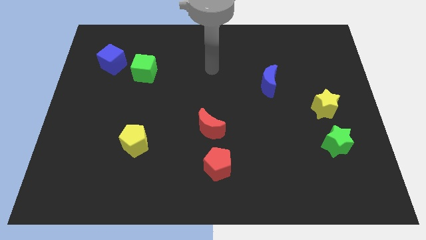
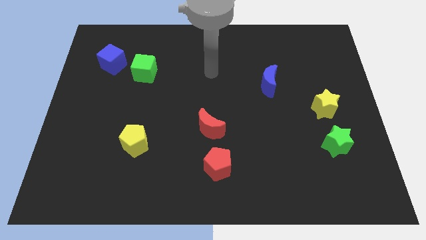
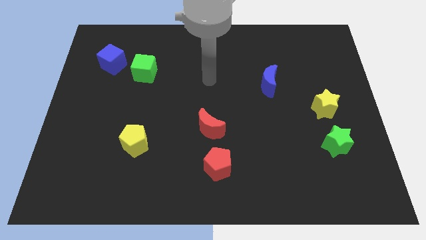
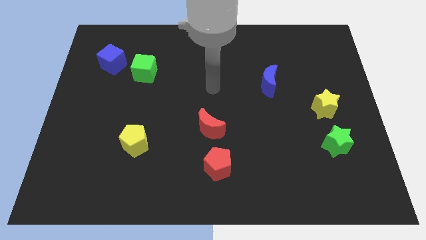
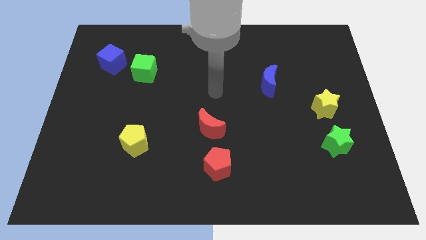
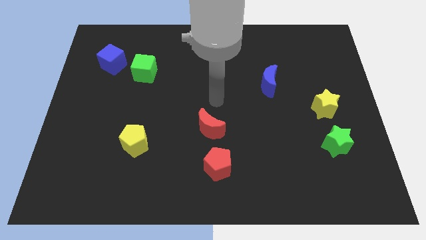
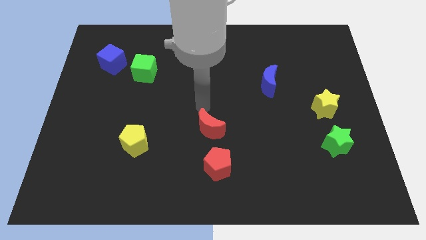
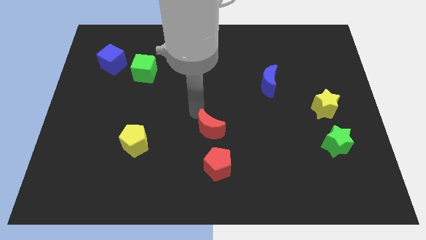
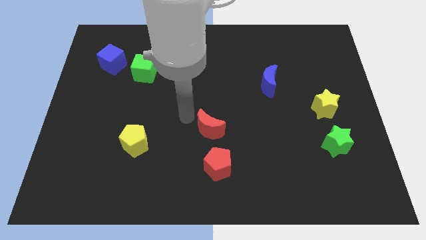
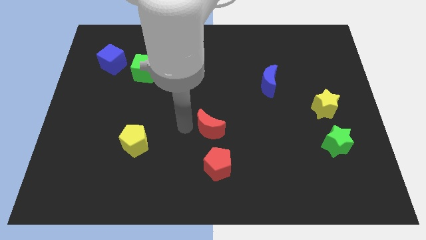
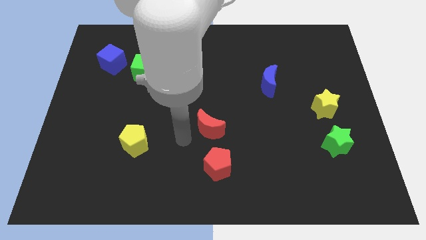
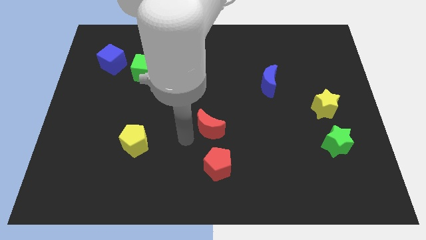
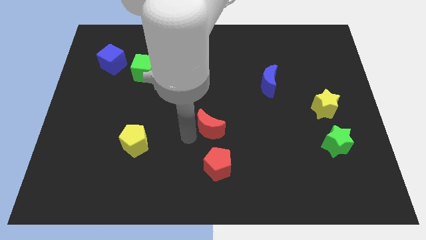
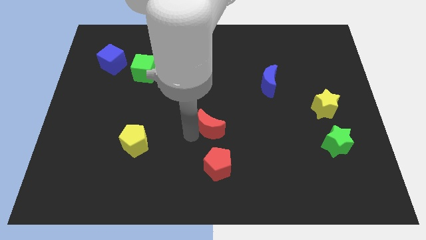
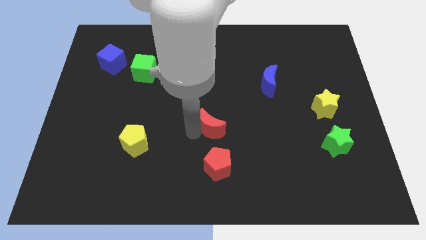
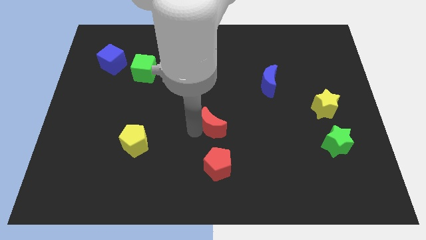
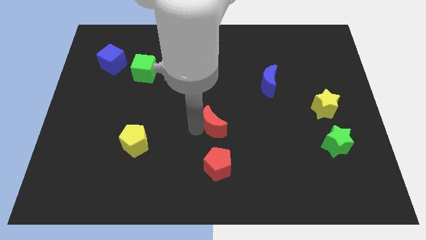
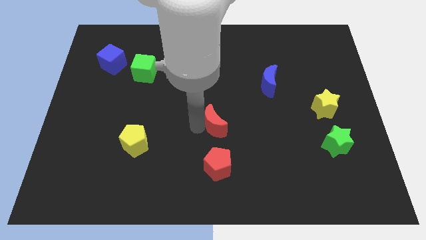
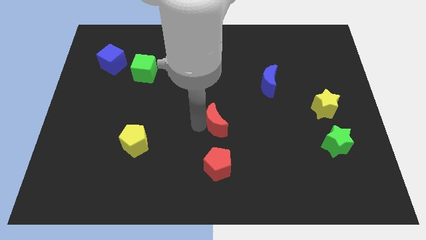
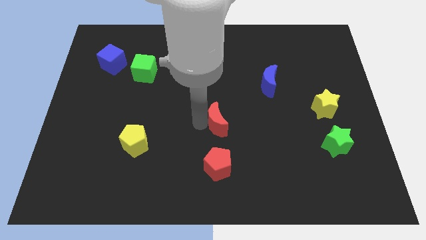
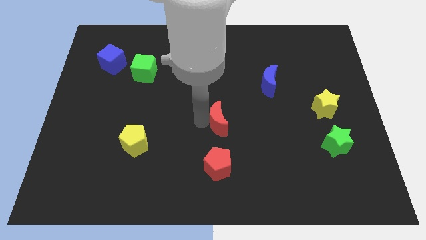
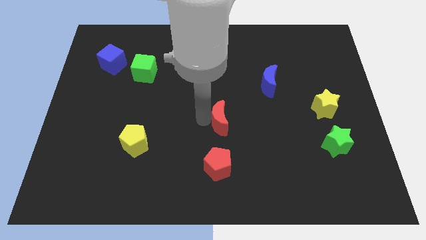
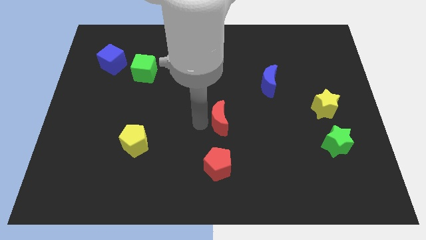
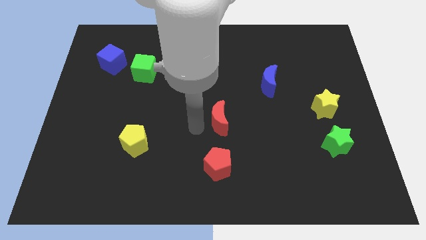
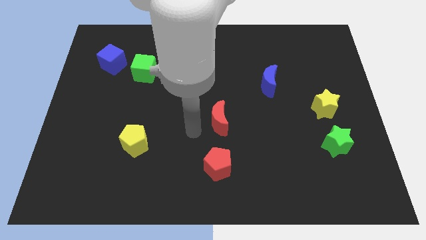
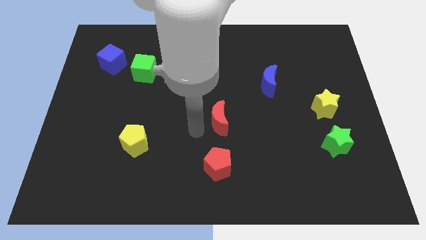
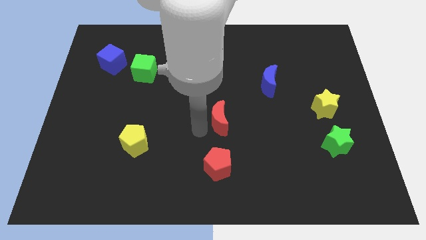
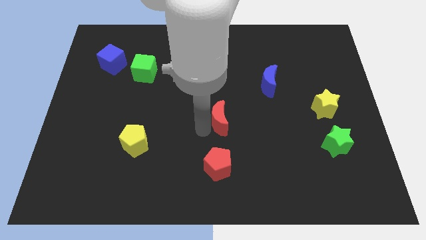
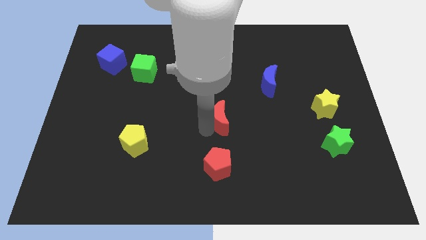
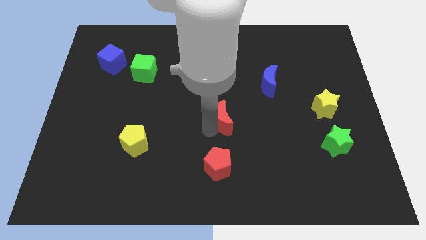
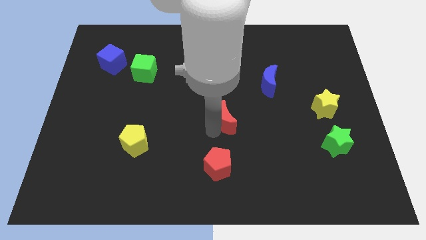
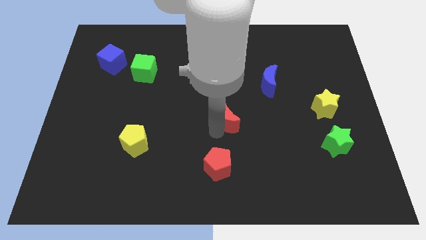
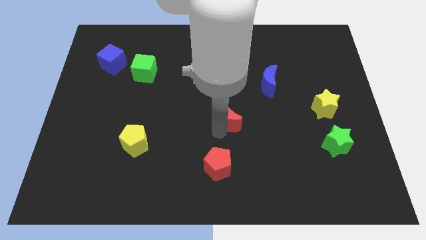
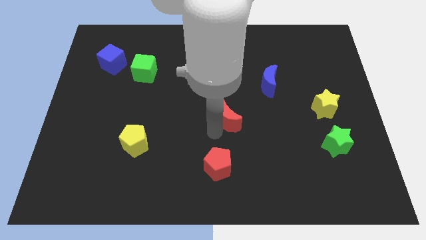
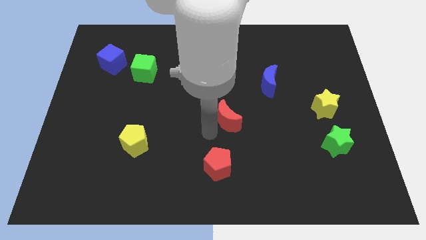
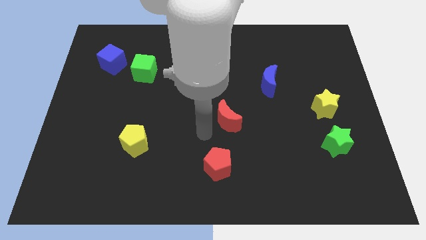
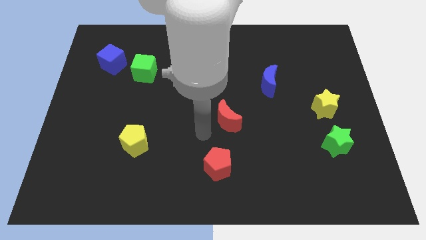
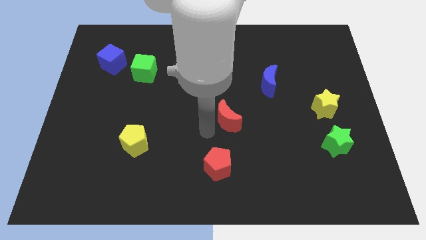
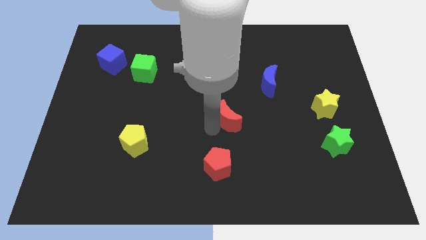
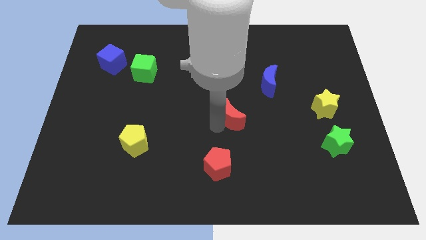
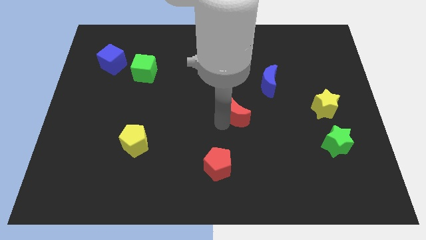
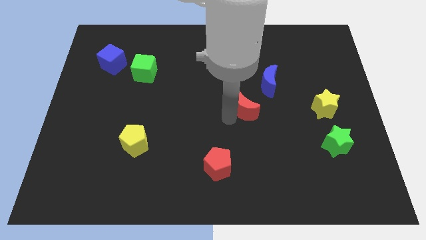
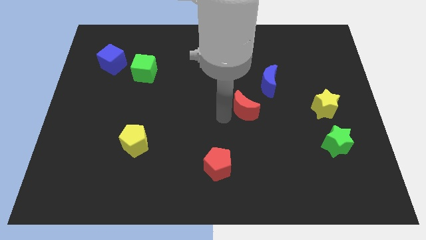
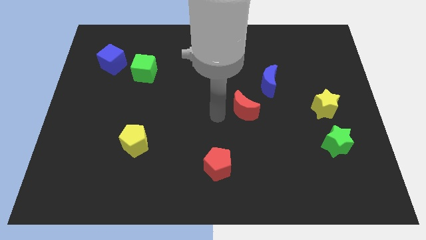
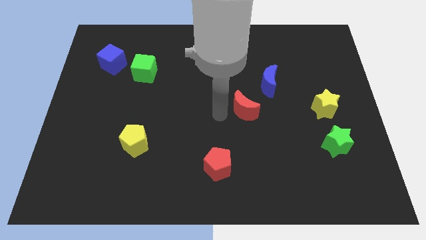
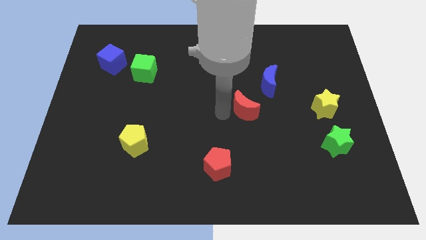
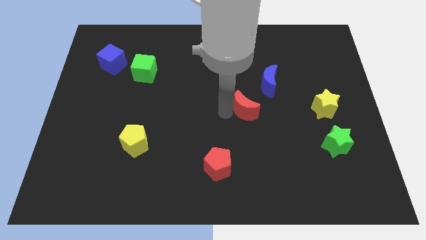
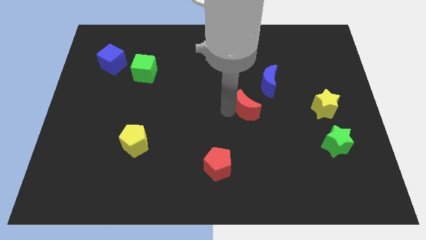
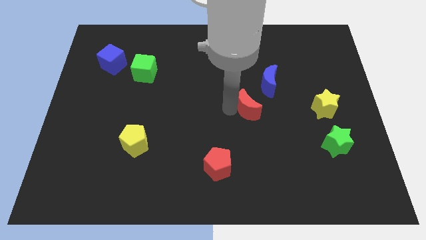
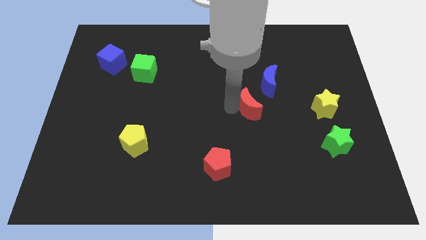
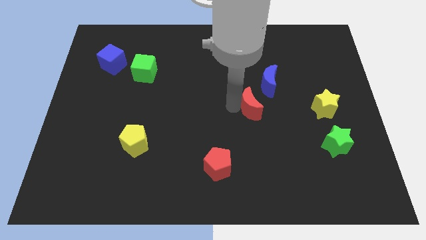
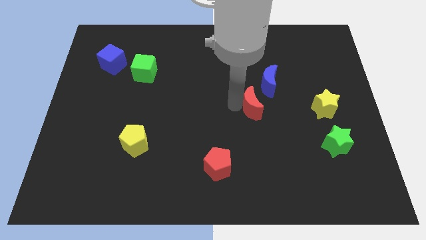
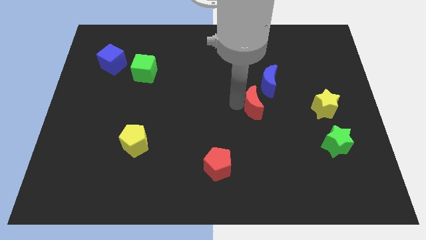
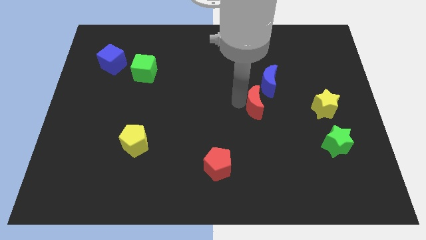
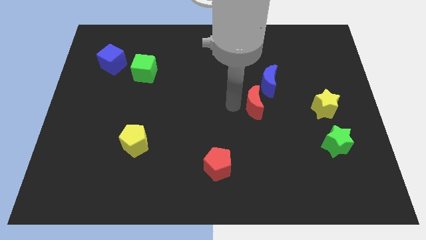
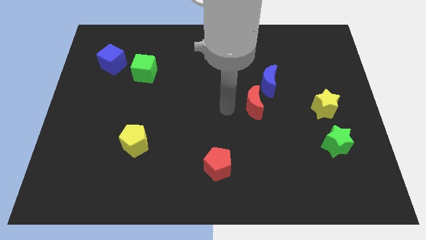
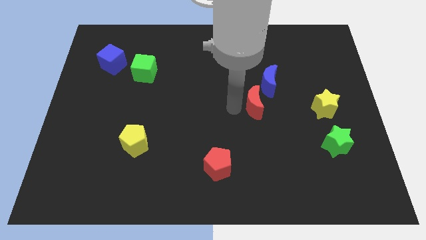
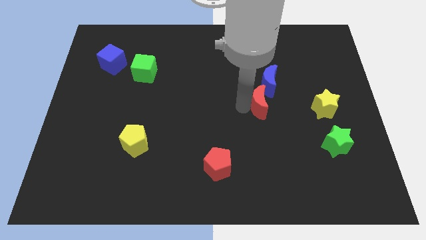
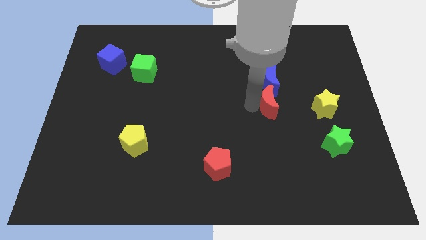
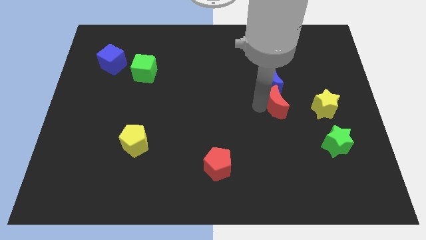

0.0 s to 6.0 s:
move the red moon to the bottom right side of the blue moon
